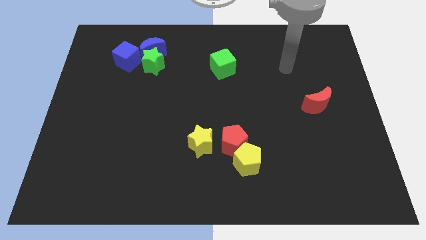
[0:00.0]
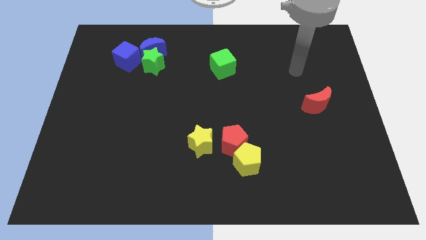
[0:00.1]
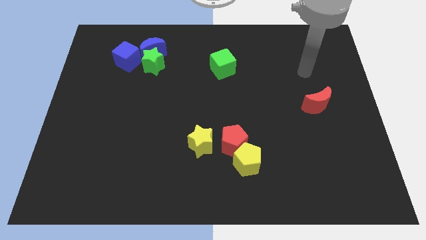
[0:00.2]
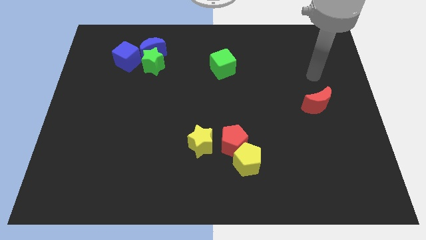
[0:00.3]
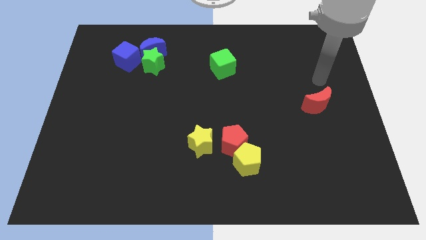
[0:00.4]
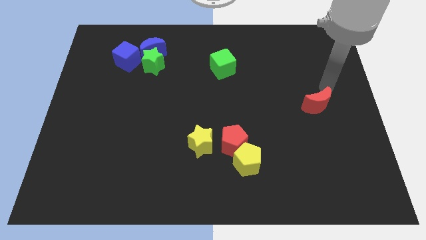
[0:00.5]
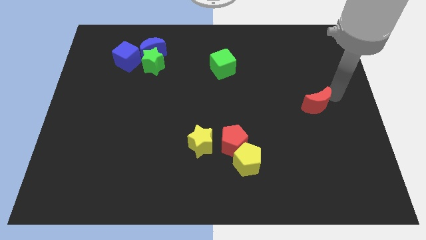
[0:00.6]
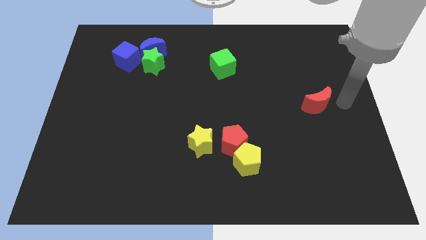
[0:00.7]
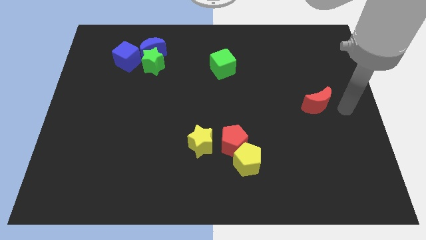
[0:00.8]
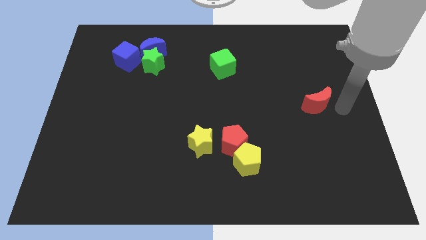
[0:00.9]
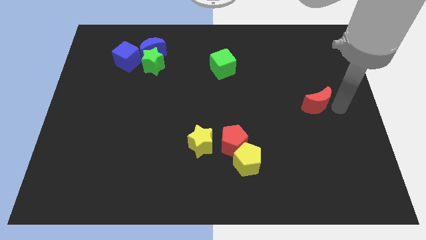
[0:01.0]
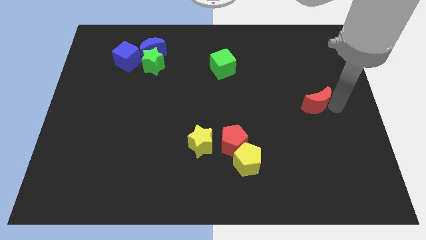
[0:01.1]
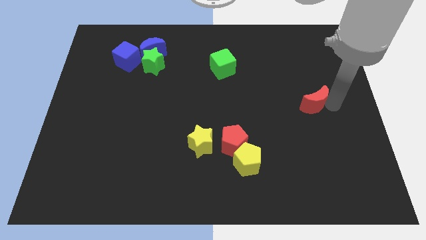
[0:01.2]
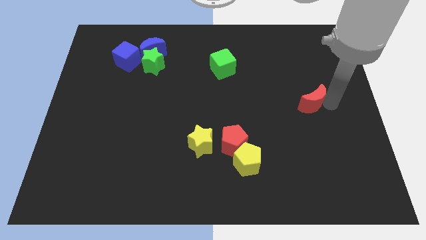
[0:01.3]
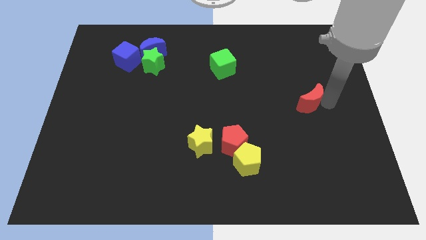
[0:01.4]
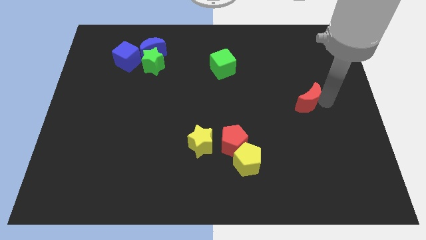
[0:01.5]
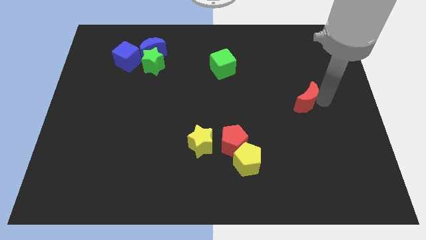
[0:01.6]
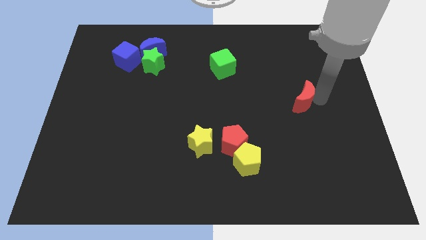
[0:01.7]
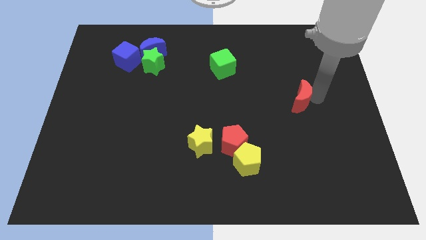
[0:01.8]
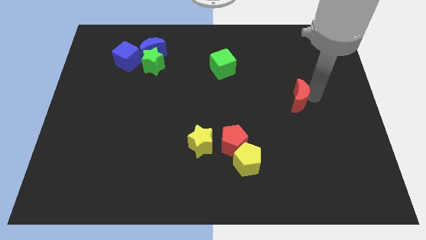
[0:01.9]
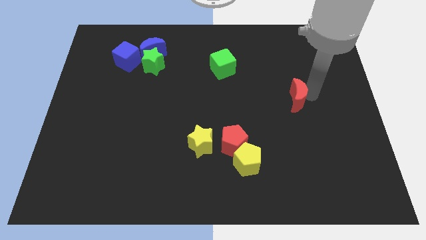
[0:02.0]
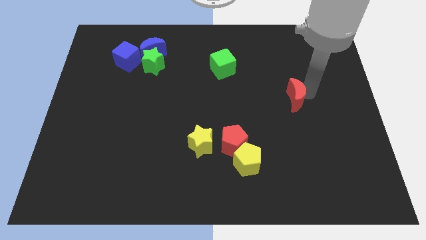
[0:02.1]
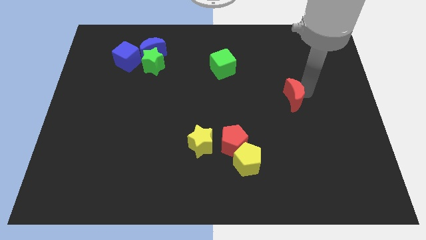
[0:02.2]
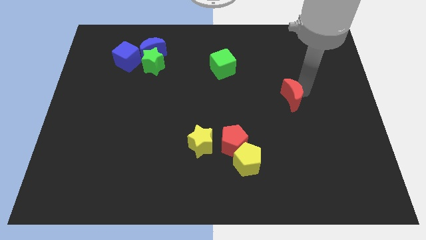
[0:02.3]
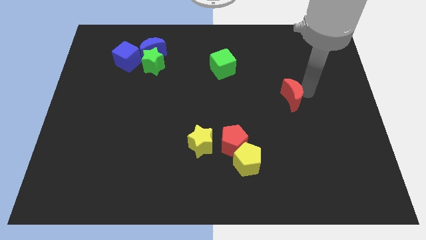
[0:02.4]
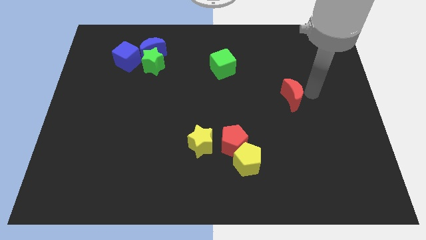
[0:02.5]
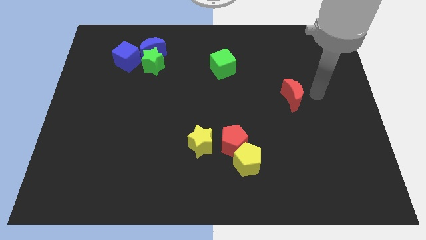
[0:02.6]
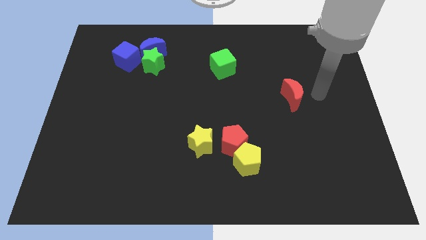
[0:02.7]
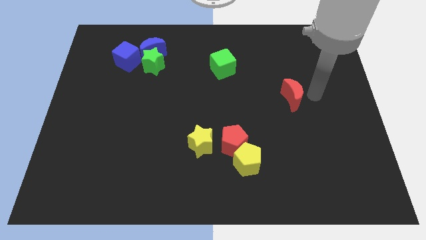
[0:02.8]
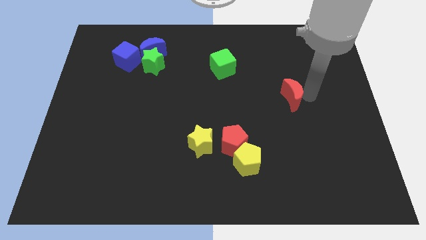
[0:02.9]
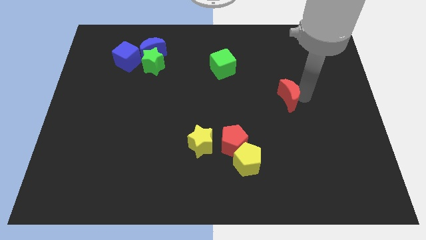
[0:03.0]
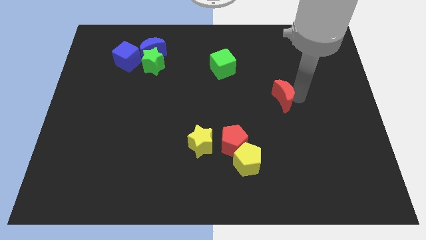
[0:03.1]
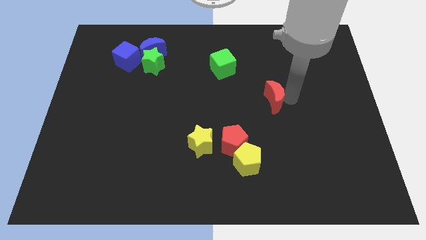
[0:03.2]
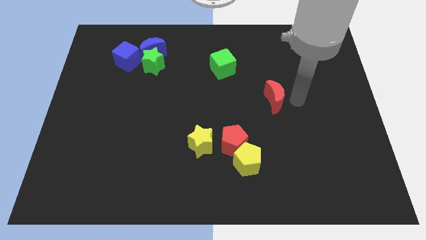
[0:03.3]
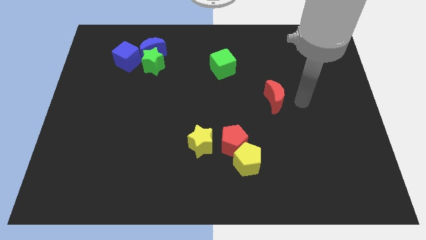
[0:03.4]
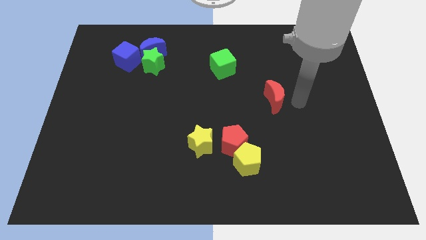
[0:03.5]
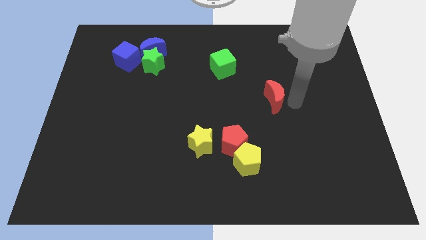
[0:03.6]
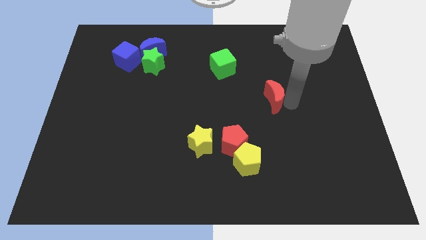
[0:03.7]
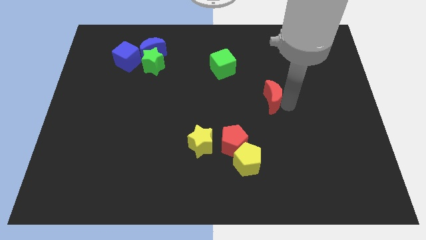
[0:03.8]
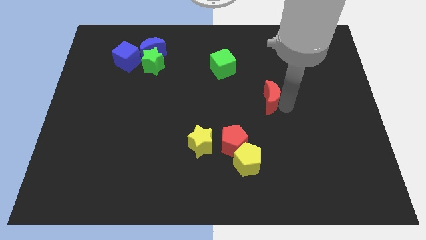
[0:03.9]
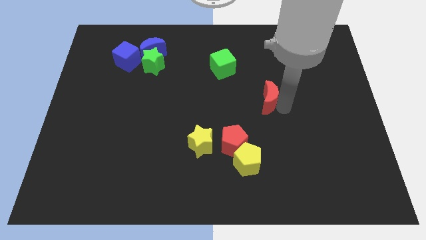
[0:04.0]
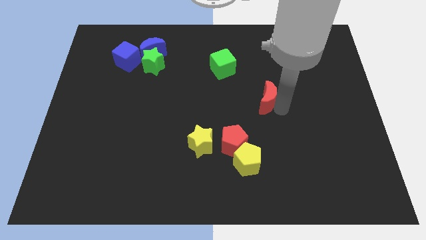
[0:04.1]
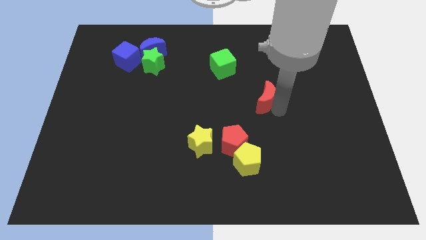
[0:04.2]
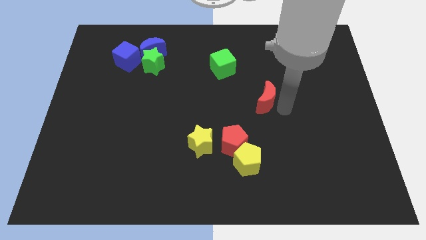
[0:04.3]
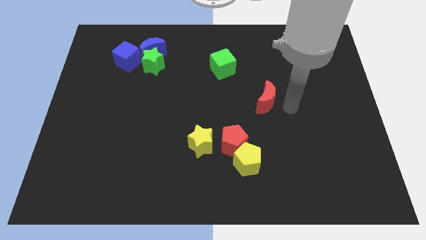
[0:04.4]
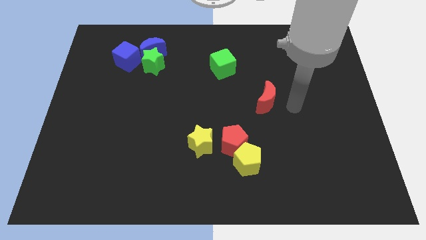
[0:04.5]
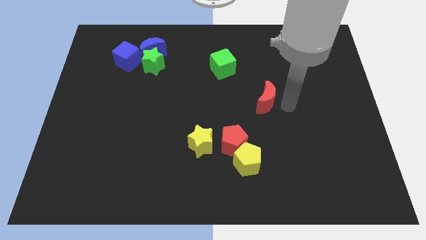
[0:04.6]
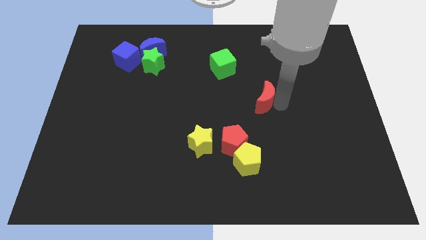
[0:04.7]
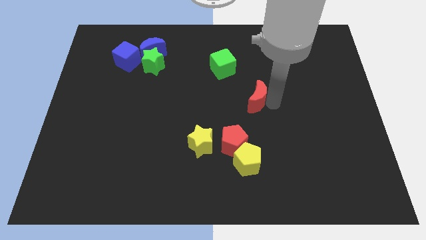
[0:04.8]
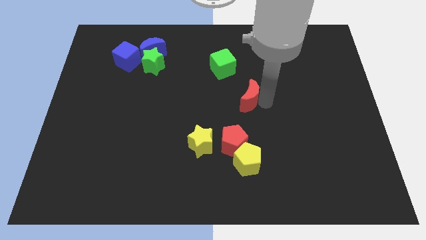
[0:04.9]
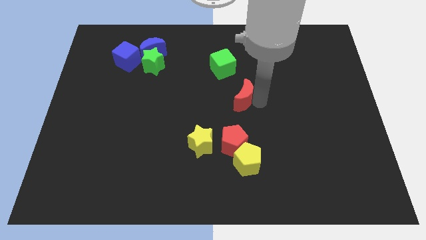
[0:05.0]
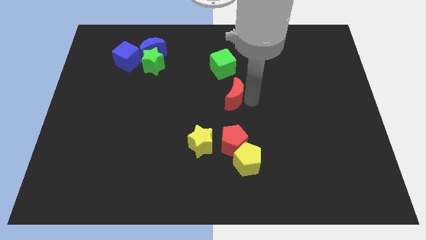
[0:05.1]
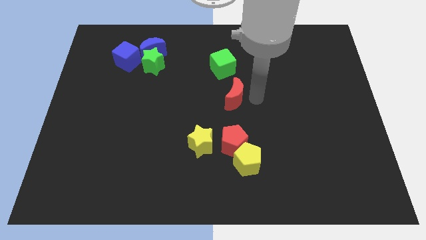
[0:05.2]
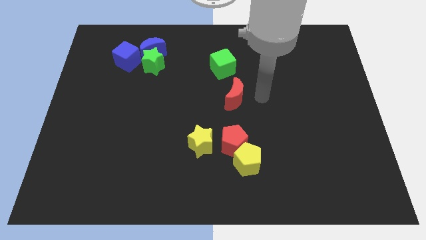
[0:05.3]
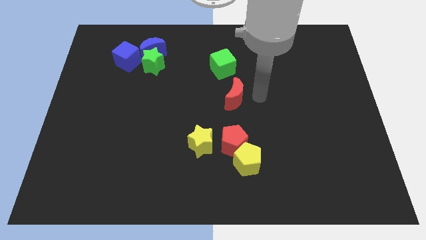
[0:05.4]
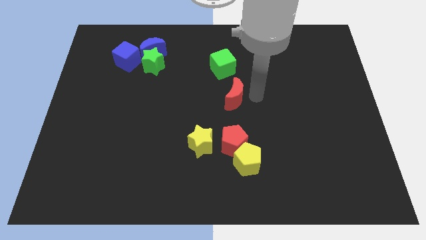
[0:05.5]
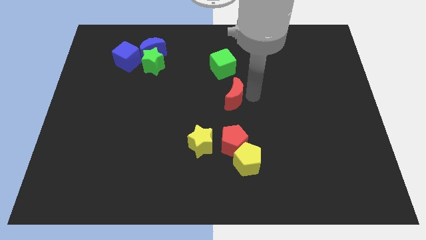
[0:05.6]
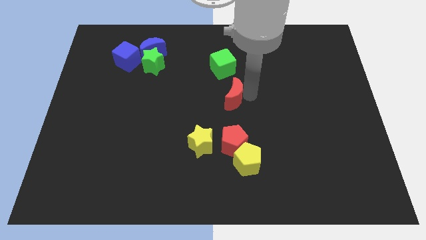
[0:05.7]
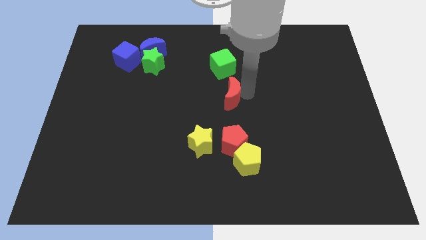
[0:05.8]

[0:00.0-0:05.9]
push the red moon to the left

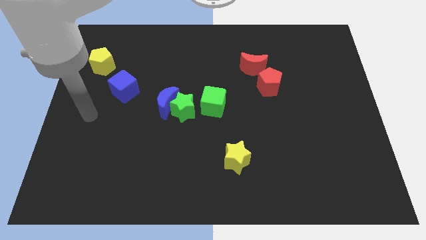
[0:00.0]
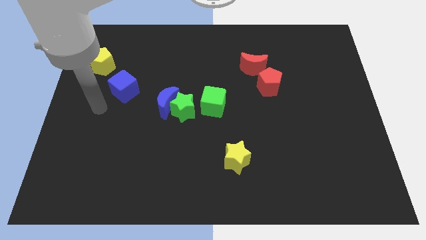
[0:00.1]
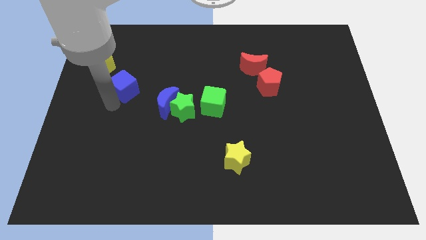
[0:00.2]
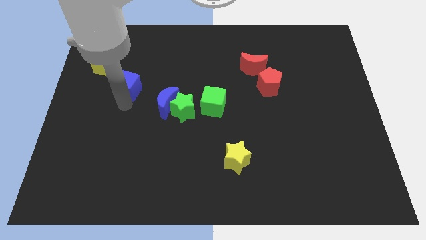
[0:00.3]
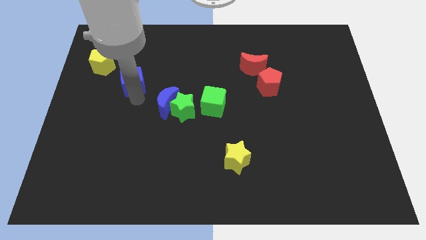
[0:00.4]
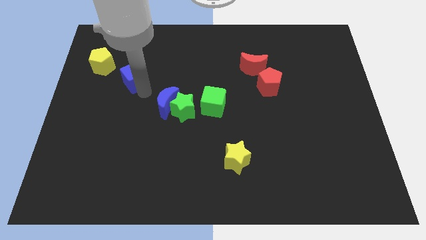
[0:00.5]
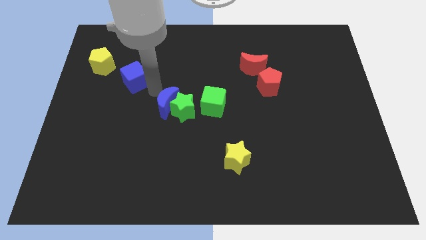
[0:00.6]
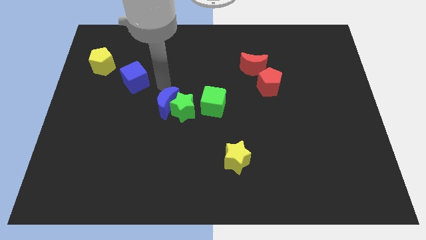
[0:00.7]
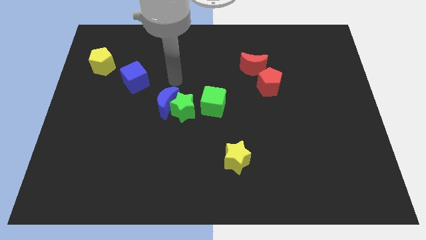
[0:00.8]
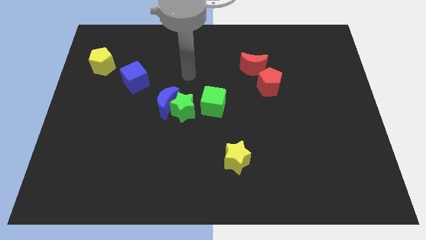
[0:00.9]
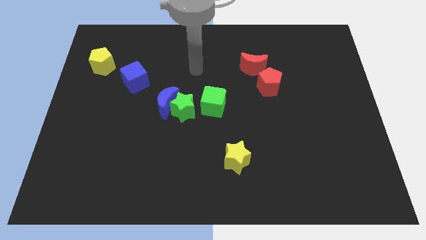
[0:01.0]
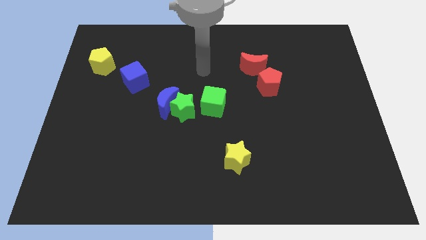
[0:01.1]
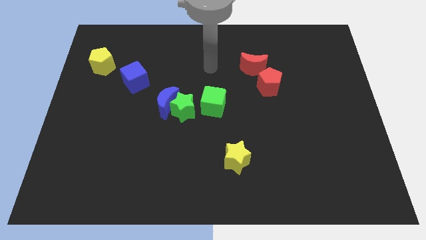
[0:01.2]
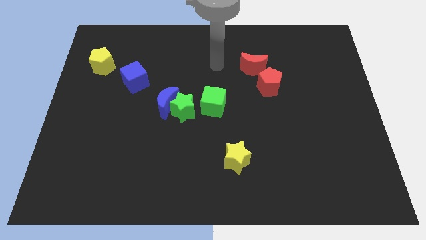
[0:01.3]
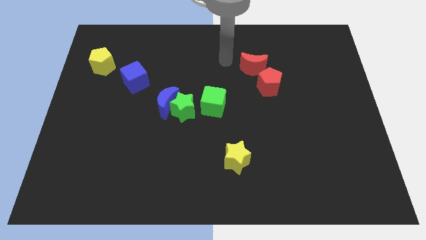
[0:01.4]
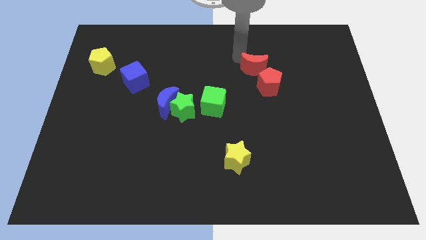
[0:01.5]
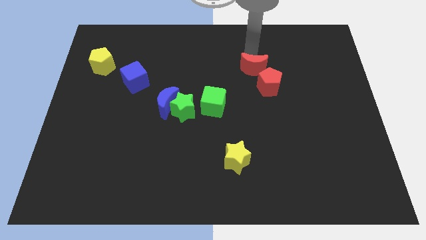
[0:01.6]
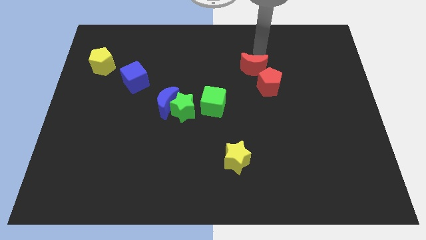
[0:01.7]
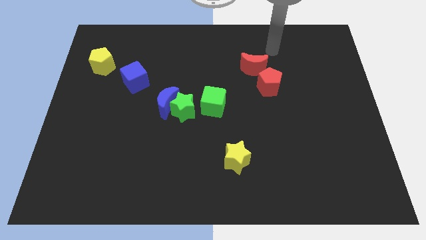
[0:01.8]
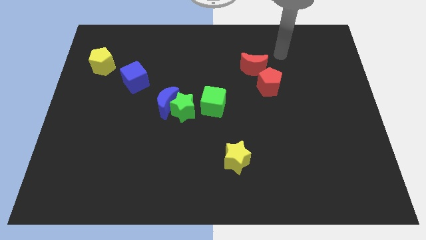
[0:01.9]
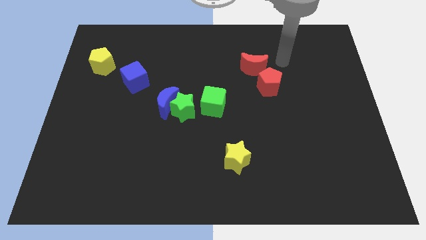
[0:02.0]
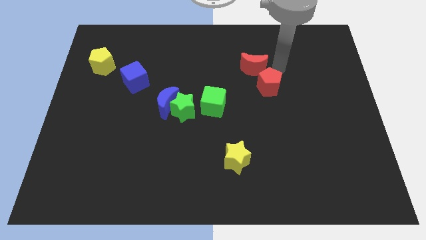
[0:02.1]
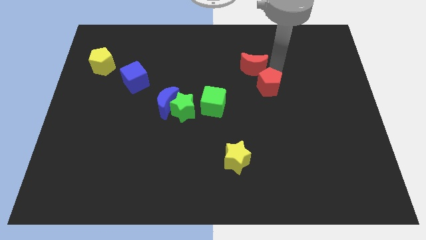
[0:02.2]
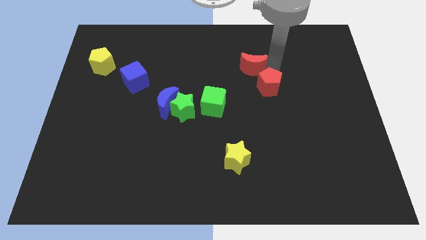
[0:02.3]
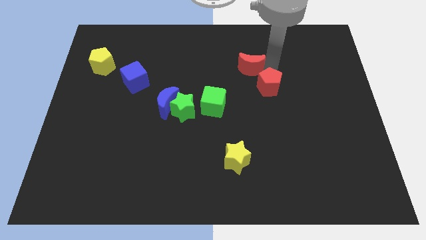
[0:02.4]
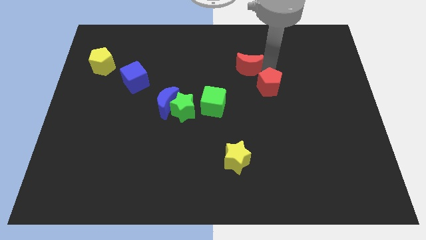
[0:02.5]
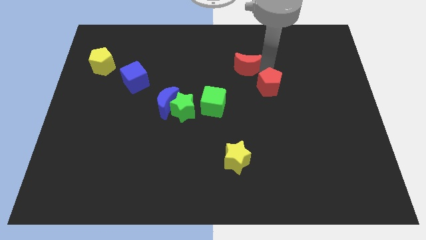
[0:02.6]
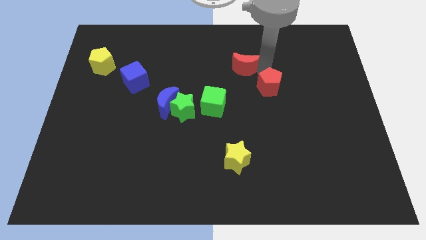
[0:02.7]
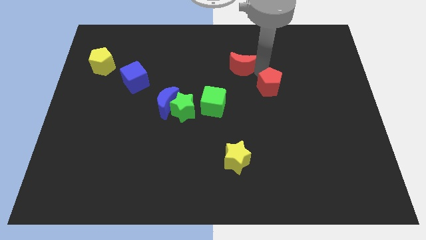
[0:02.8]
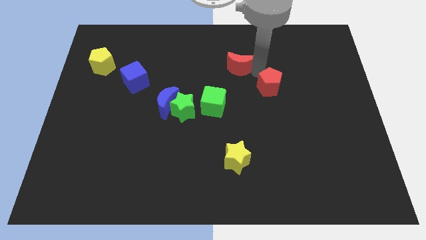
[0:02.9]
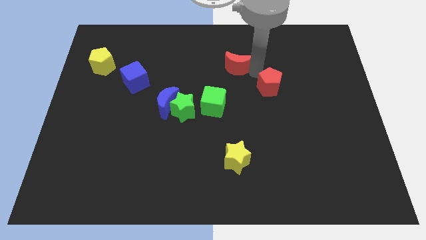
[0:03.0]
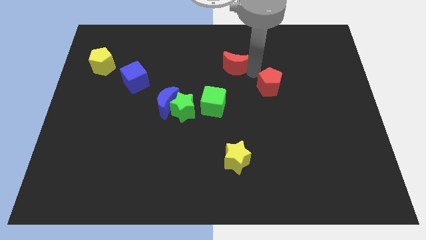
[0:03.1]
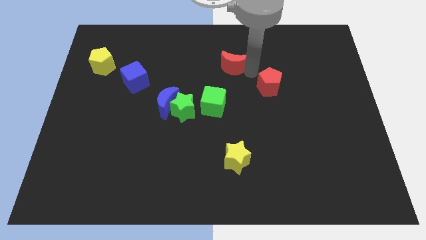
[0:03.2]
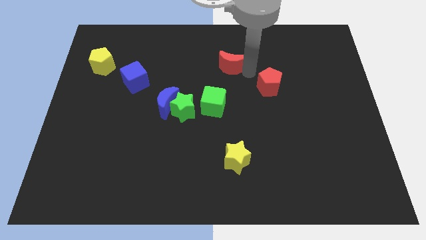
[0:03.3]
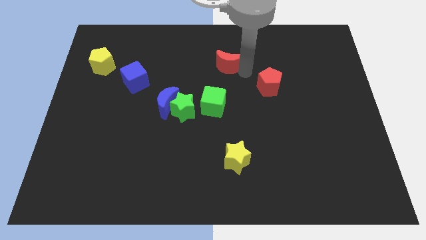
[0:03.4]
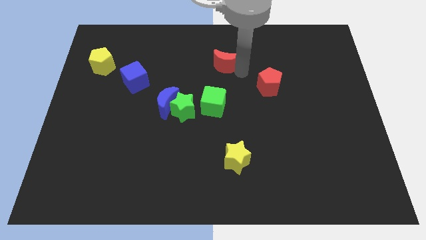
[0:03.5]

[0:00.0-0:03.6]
move the red moon left a little
